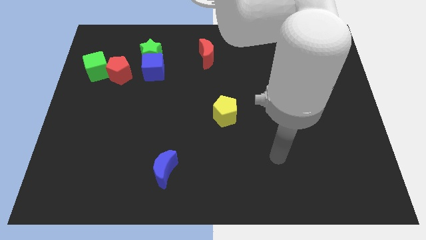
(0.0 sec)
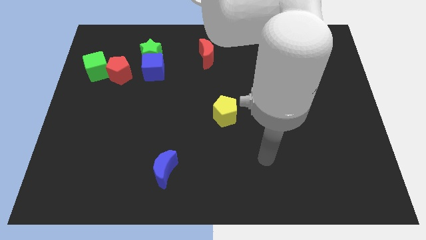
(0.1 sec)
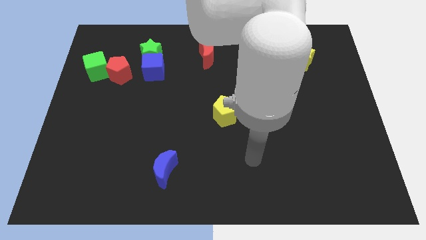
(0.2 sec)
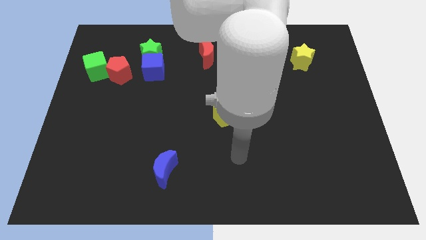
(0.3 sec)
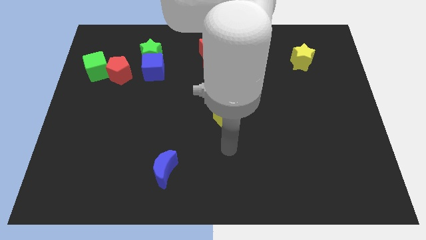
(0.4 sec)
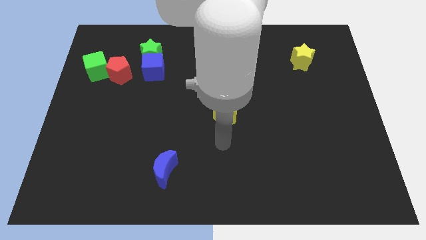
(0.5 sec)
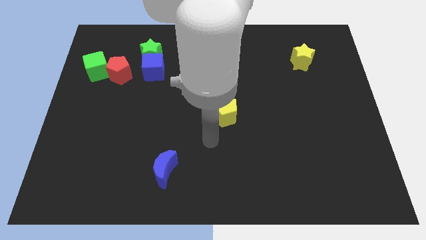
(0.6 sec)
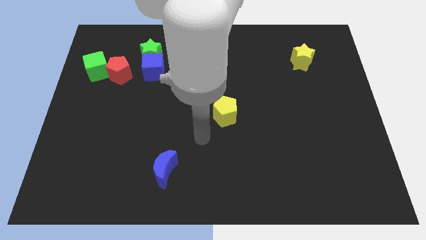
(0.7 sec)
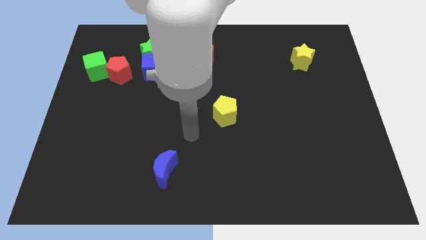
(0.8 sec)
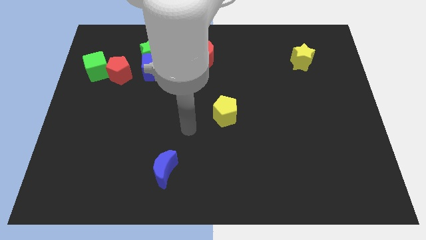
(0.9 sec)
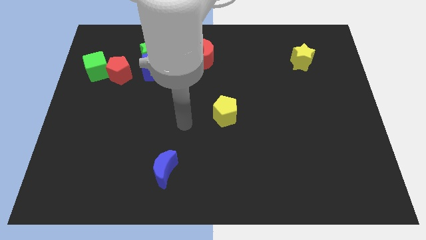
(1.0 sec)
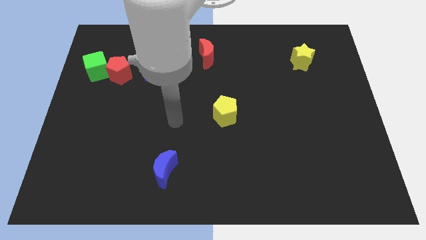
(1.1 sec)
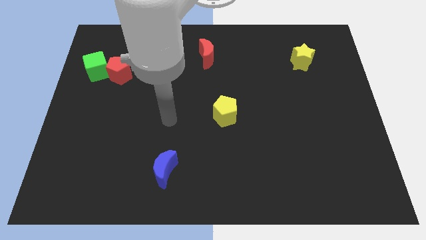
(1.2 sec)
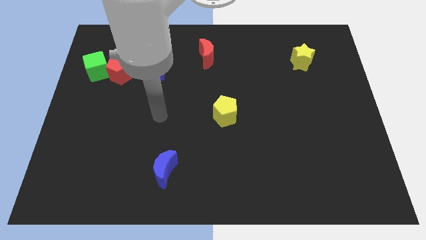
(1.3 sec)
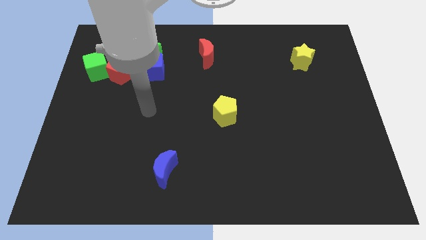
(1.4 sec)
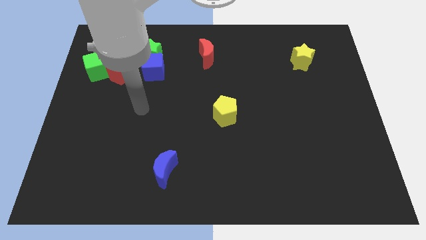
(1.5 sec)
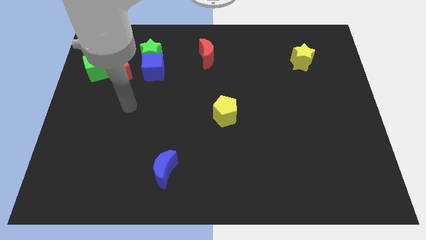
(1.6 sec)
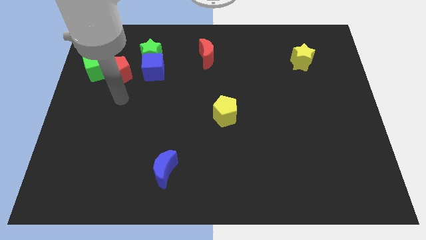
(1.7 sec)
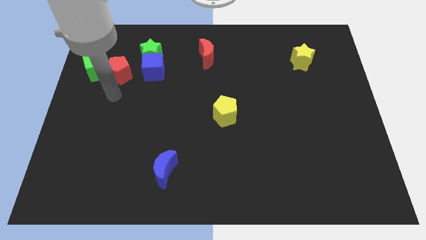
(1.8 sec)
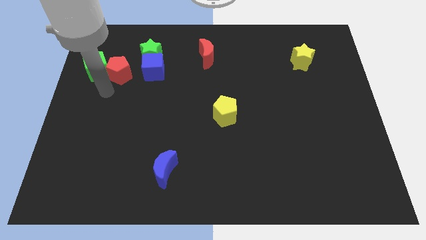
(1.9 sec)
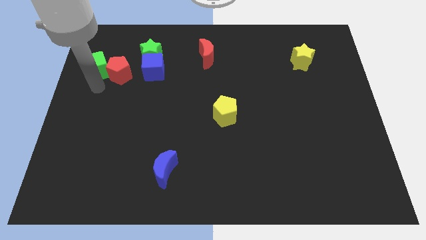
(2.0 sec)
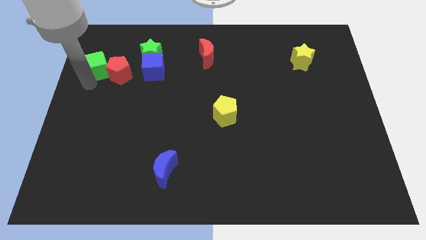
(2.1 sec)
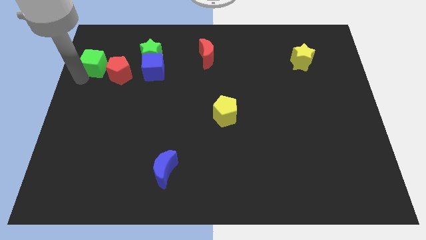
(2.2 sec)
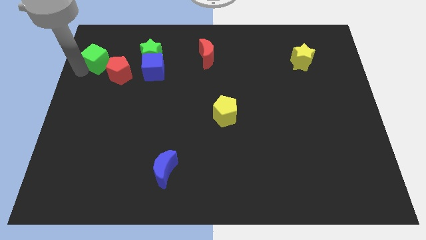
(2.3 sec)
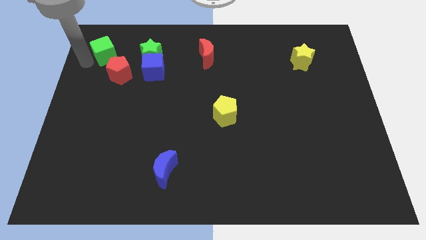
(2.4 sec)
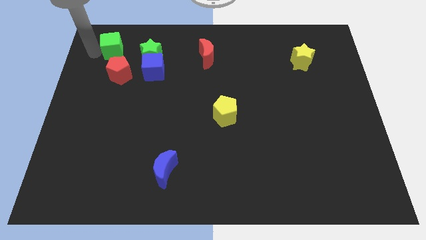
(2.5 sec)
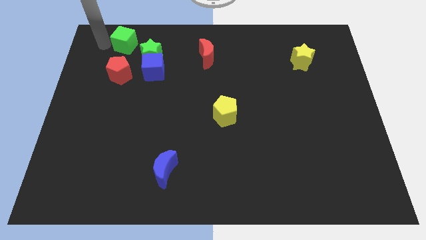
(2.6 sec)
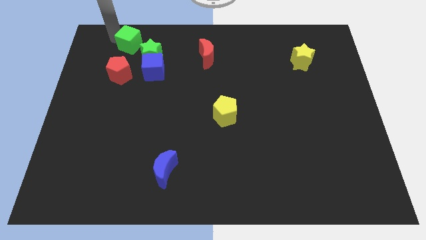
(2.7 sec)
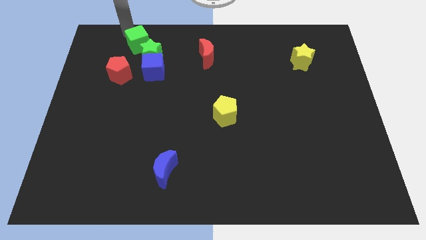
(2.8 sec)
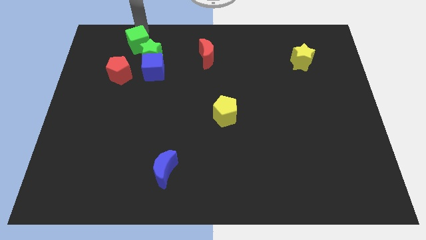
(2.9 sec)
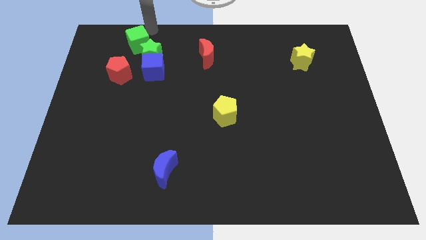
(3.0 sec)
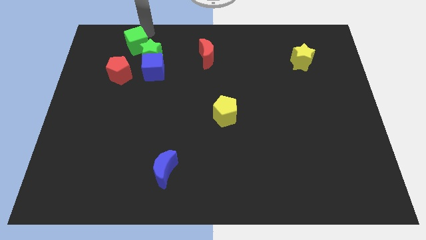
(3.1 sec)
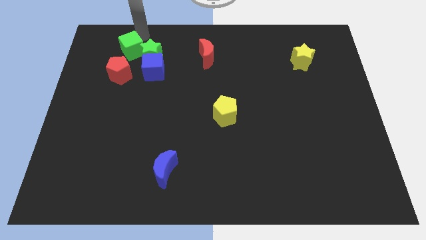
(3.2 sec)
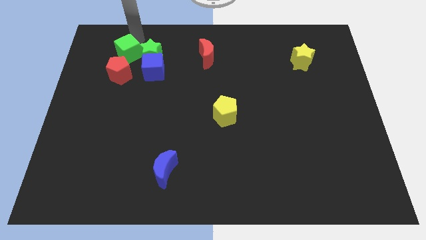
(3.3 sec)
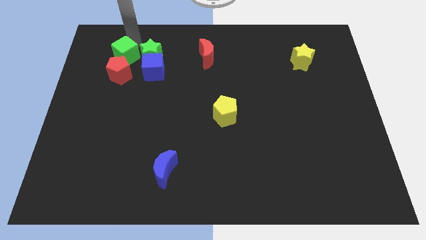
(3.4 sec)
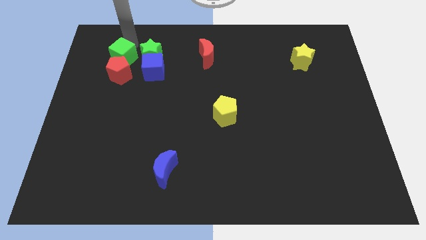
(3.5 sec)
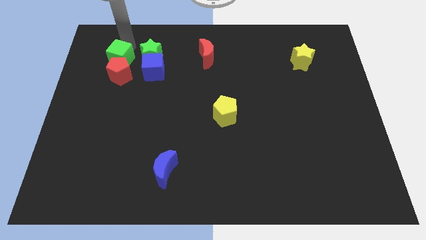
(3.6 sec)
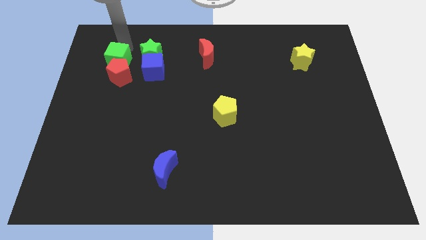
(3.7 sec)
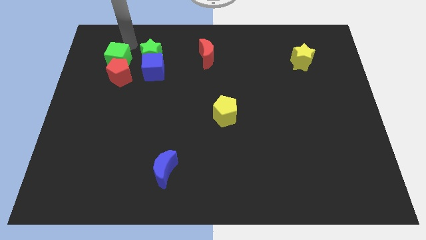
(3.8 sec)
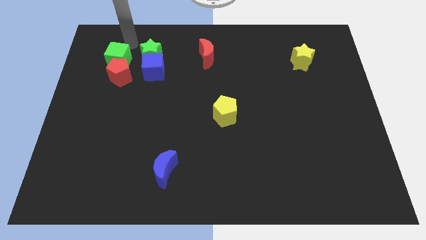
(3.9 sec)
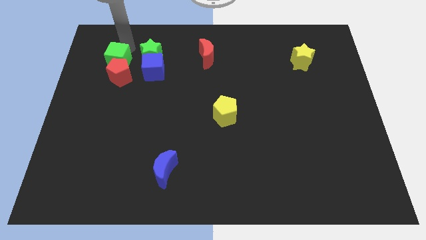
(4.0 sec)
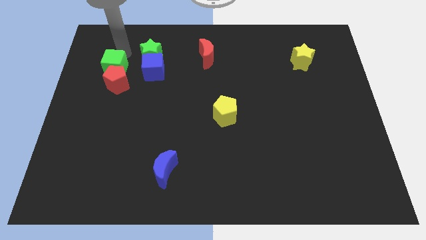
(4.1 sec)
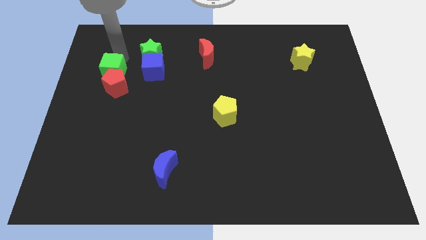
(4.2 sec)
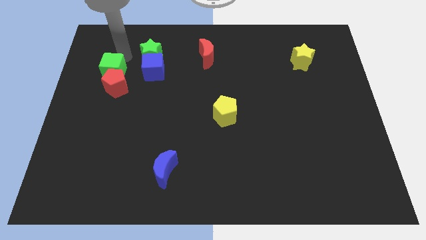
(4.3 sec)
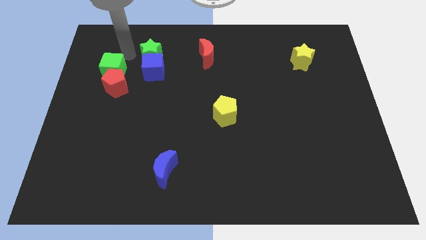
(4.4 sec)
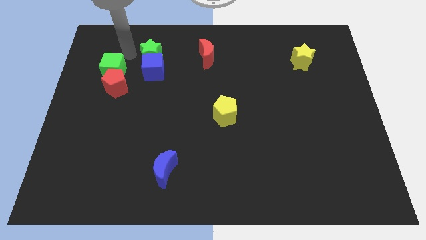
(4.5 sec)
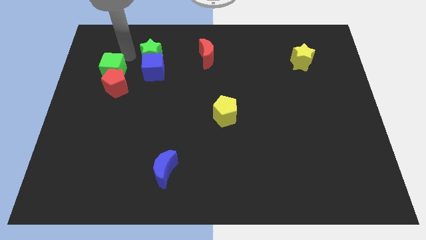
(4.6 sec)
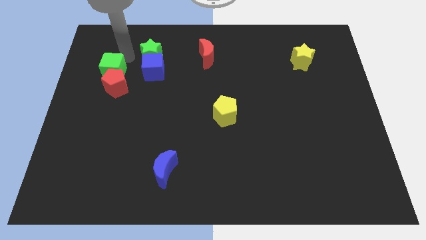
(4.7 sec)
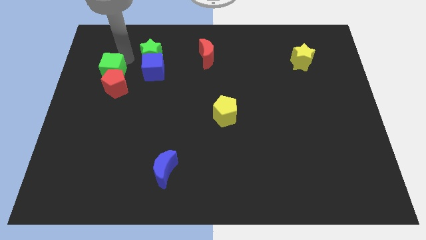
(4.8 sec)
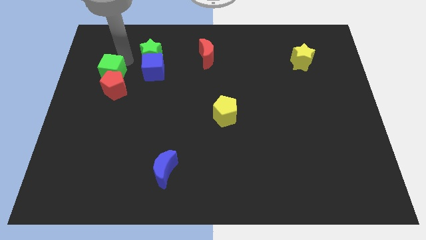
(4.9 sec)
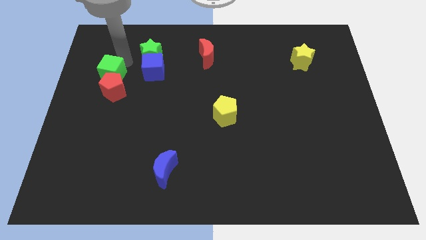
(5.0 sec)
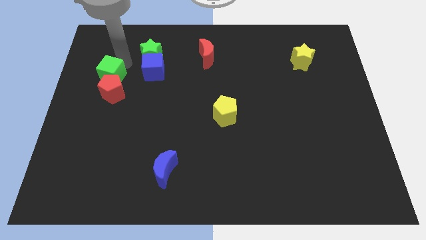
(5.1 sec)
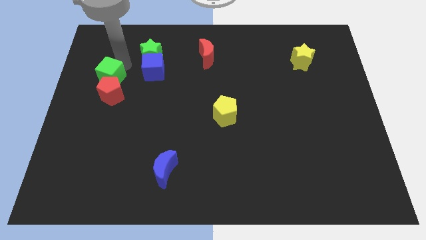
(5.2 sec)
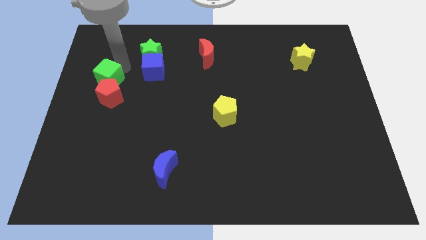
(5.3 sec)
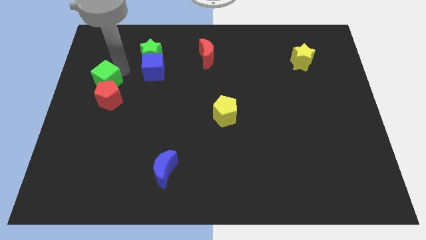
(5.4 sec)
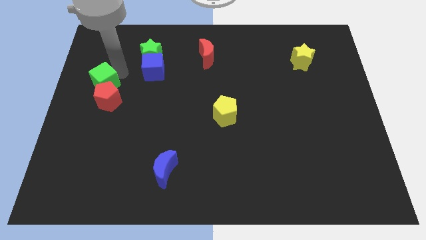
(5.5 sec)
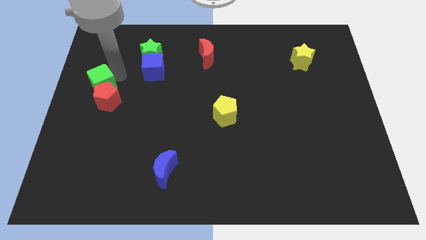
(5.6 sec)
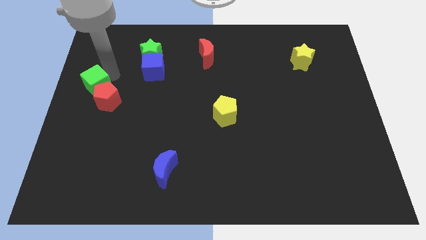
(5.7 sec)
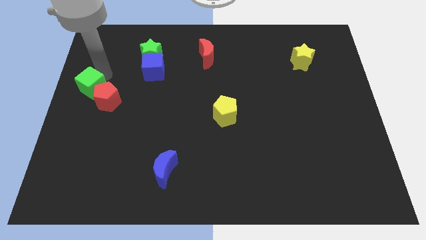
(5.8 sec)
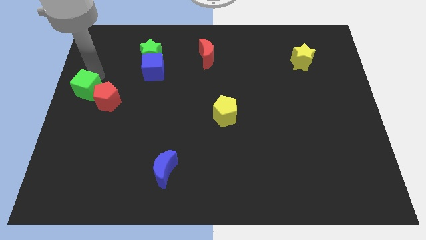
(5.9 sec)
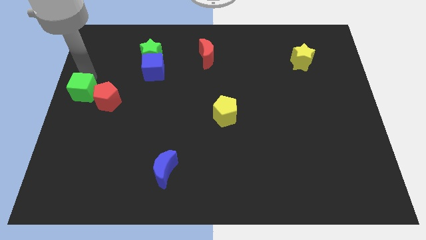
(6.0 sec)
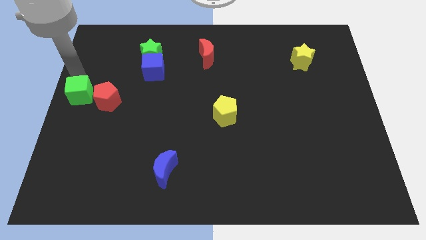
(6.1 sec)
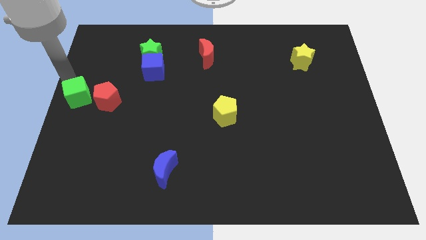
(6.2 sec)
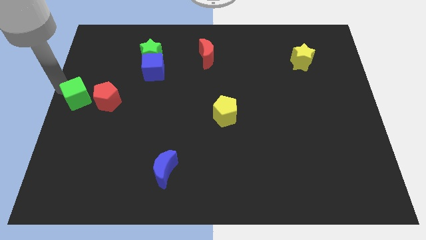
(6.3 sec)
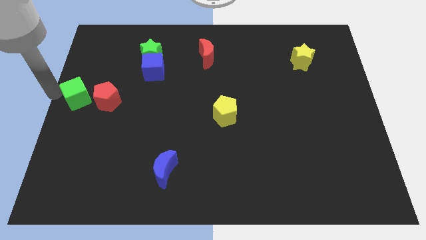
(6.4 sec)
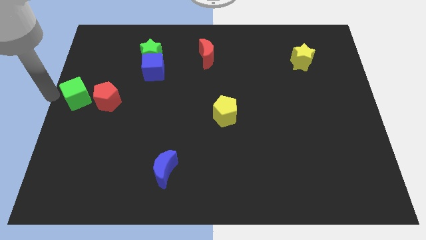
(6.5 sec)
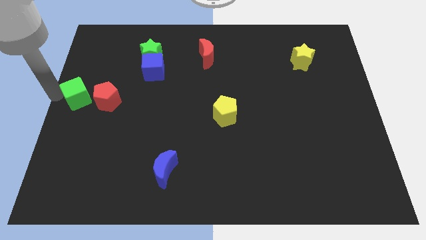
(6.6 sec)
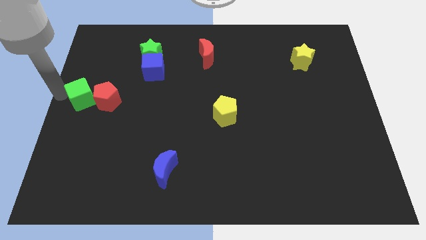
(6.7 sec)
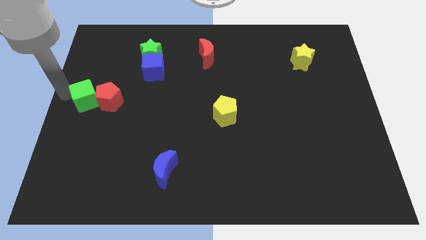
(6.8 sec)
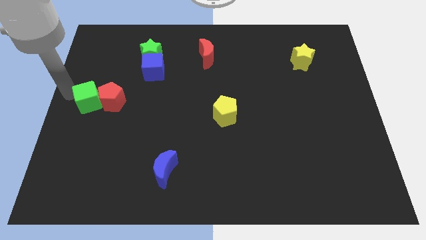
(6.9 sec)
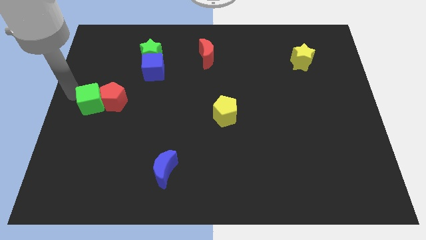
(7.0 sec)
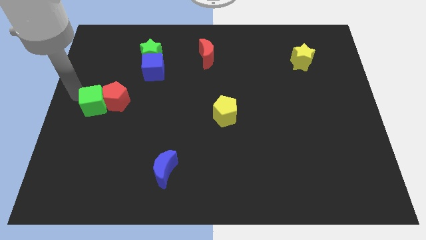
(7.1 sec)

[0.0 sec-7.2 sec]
move the green cube diagonally downwards and to the right slightly

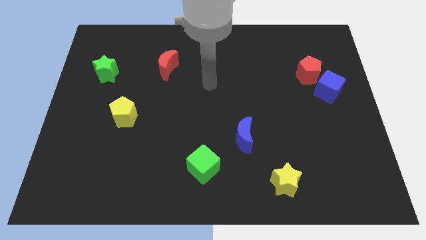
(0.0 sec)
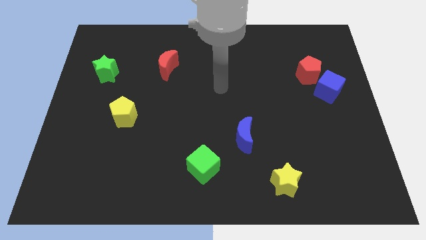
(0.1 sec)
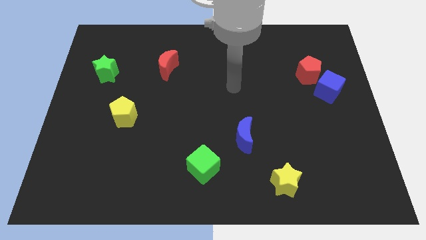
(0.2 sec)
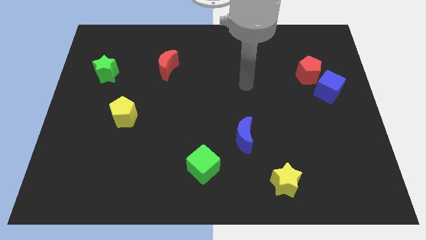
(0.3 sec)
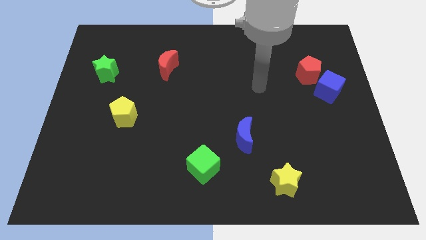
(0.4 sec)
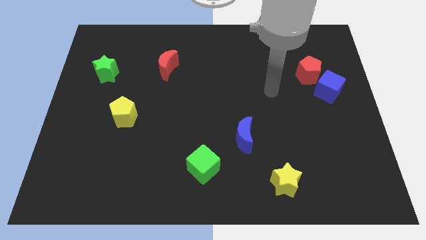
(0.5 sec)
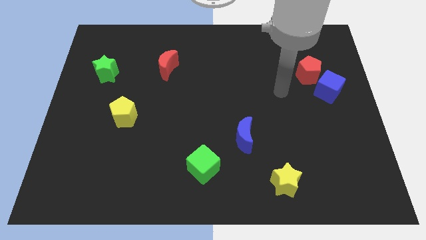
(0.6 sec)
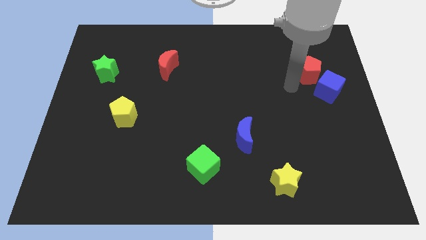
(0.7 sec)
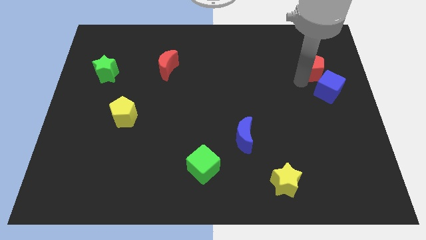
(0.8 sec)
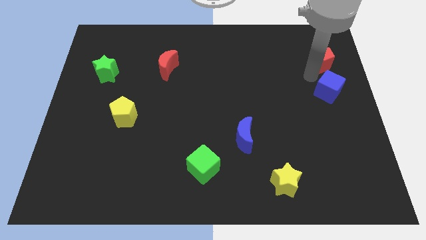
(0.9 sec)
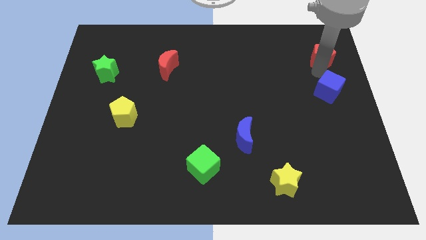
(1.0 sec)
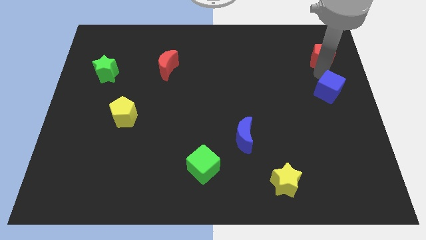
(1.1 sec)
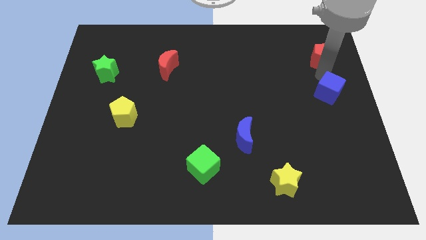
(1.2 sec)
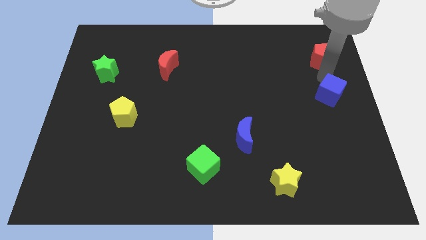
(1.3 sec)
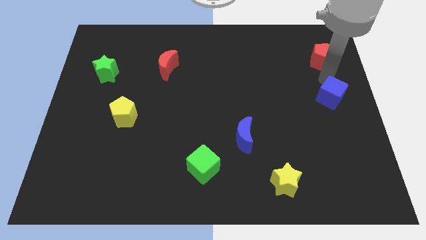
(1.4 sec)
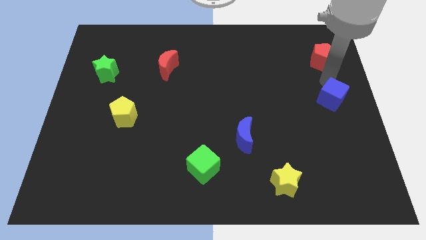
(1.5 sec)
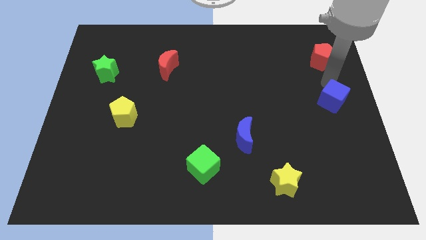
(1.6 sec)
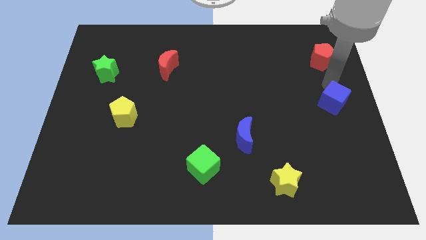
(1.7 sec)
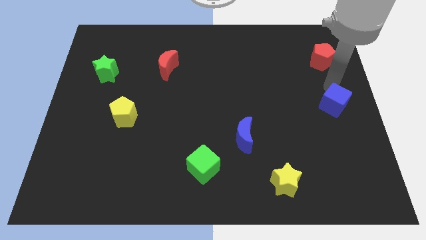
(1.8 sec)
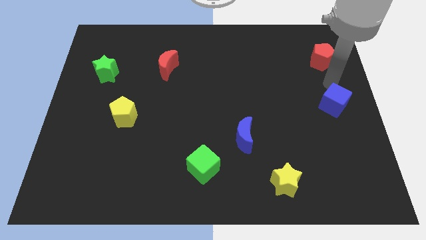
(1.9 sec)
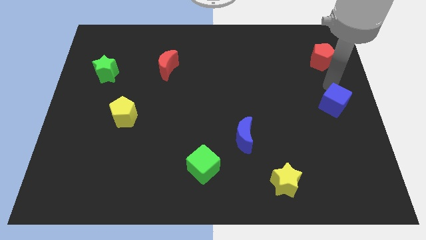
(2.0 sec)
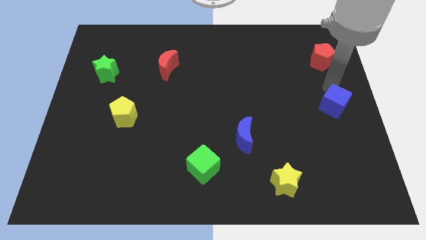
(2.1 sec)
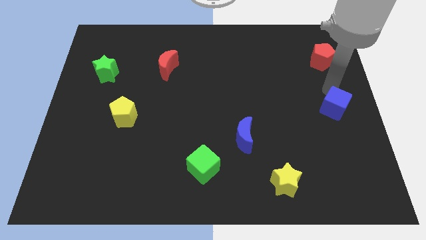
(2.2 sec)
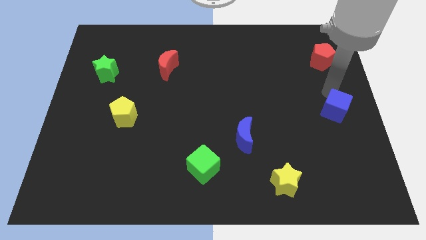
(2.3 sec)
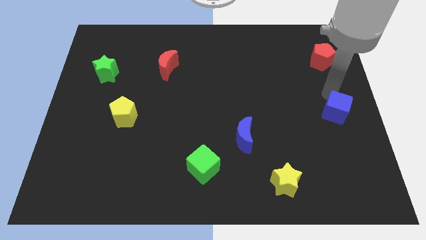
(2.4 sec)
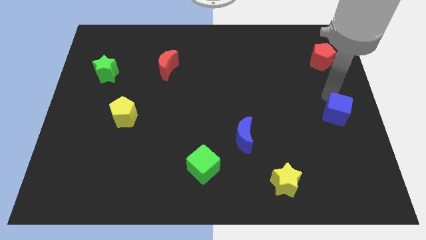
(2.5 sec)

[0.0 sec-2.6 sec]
move the blue cube slightly down
